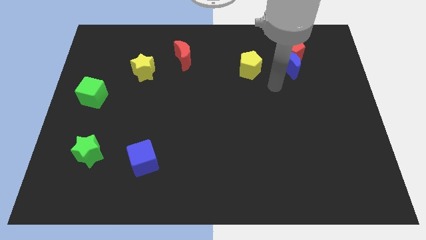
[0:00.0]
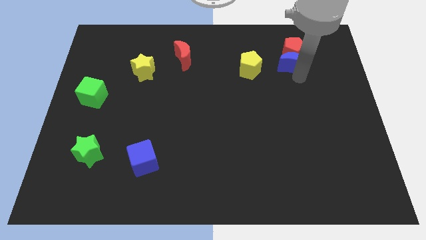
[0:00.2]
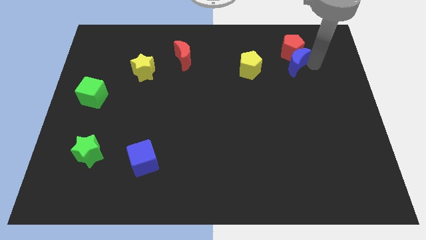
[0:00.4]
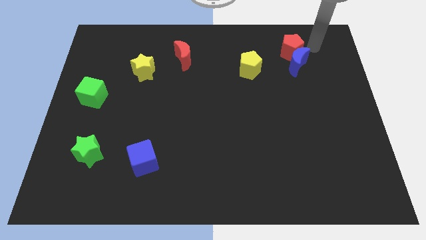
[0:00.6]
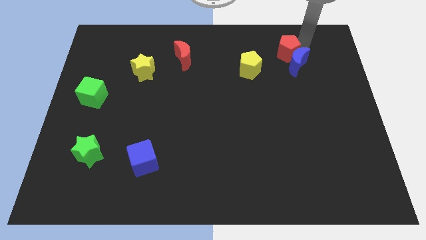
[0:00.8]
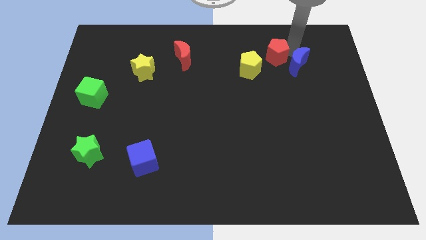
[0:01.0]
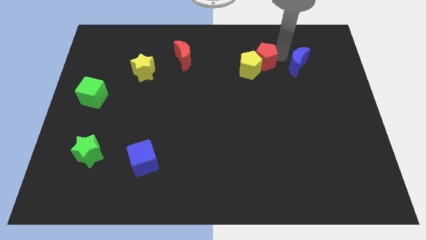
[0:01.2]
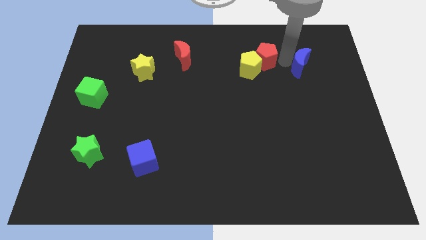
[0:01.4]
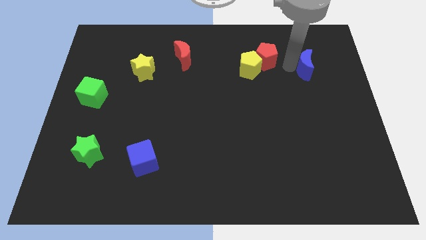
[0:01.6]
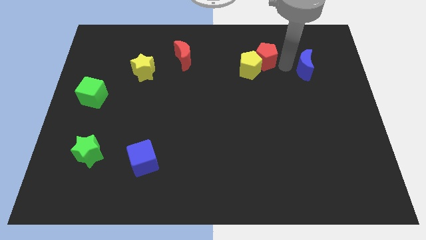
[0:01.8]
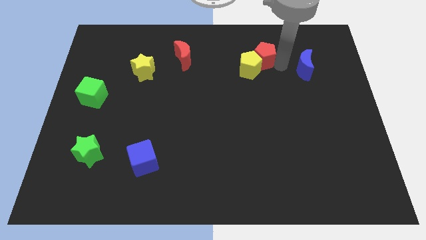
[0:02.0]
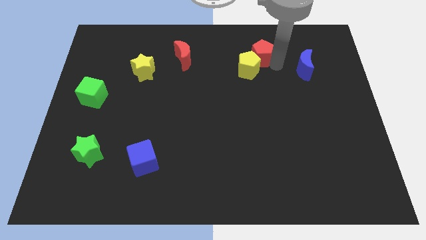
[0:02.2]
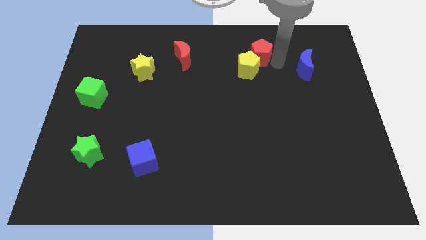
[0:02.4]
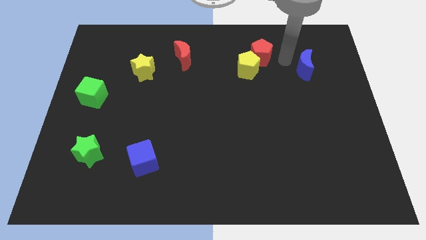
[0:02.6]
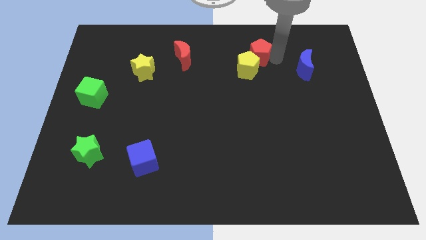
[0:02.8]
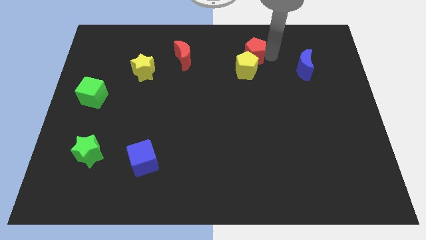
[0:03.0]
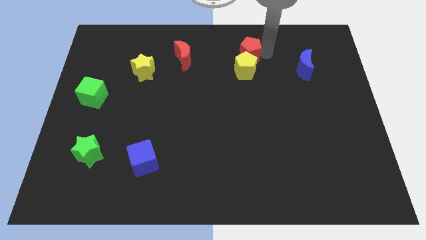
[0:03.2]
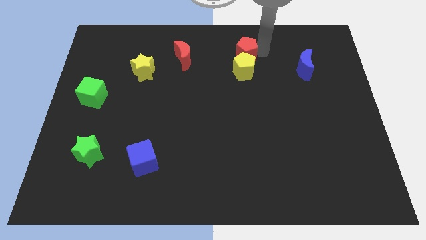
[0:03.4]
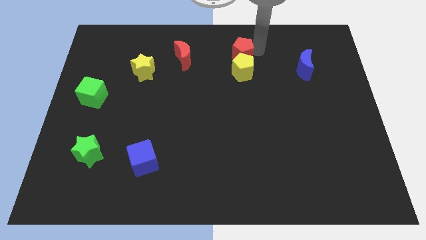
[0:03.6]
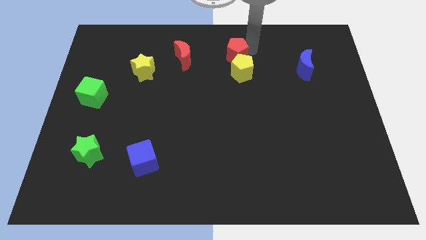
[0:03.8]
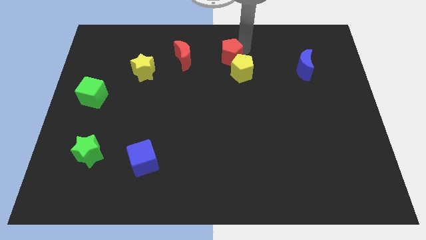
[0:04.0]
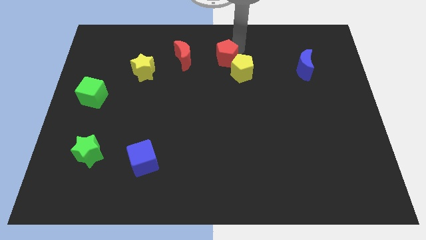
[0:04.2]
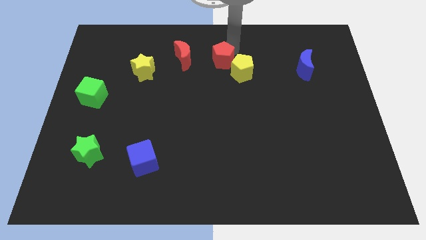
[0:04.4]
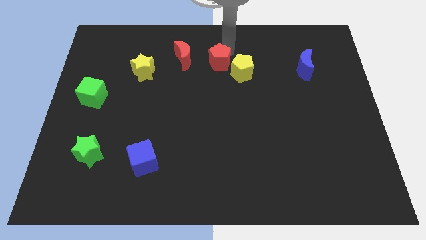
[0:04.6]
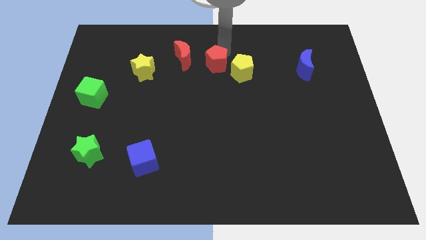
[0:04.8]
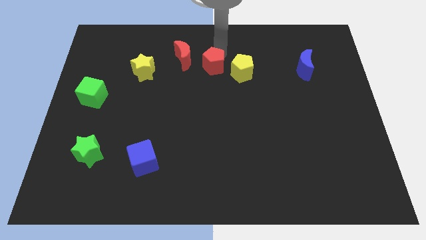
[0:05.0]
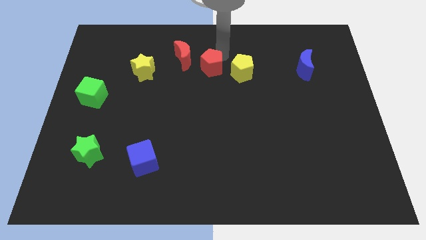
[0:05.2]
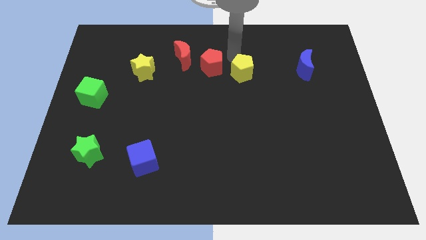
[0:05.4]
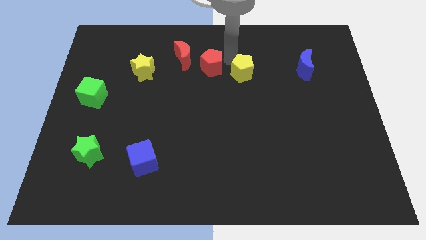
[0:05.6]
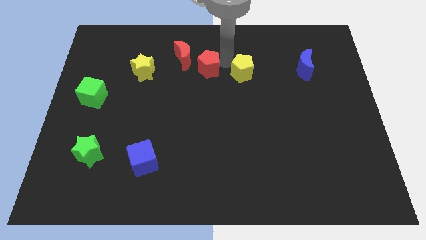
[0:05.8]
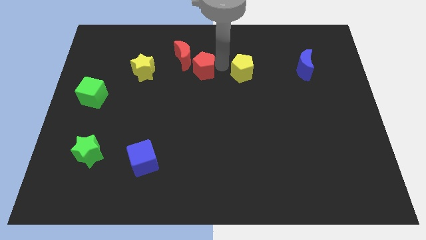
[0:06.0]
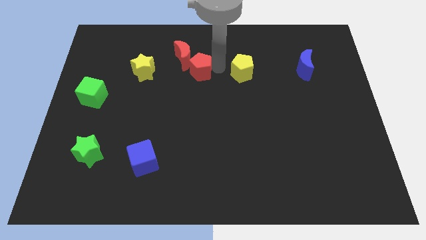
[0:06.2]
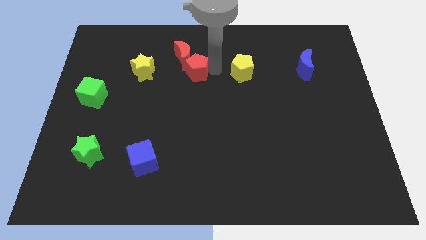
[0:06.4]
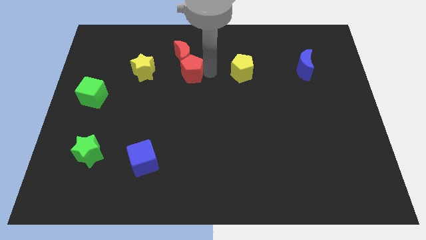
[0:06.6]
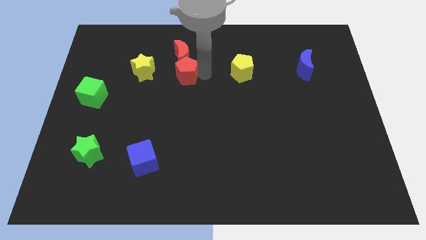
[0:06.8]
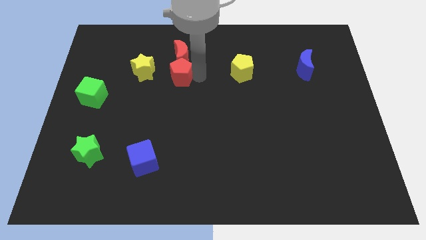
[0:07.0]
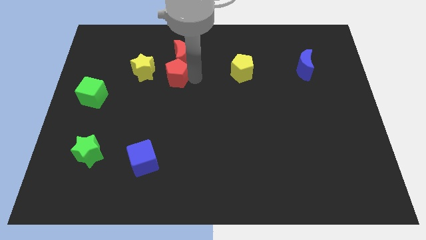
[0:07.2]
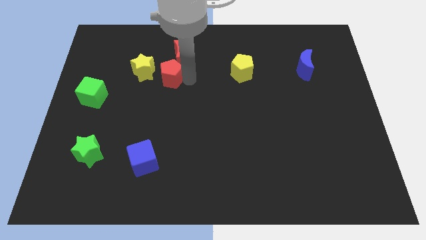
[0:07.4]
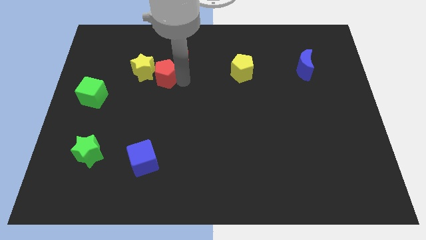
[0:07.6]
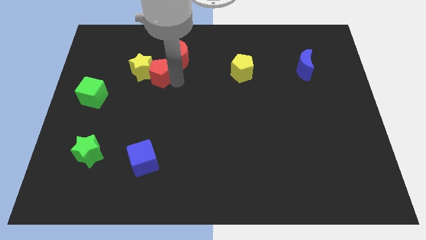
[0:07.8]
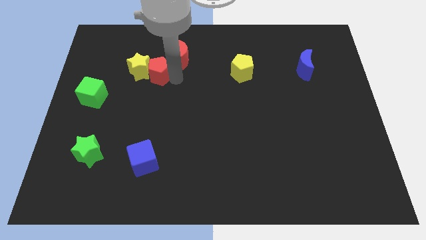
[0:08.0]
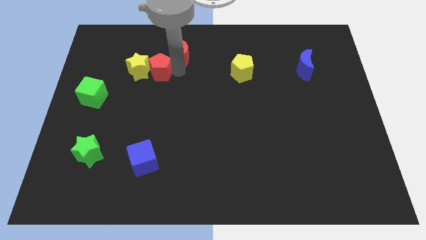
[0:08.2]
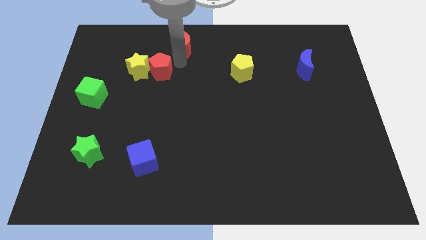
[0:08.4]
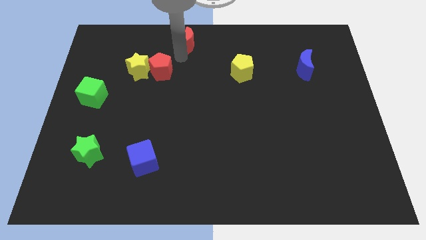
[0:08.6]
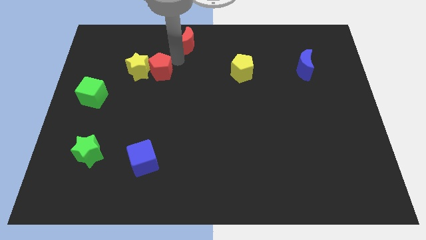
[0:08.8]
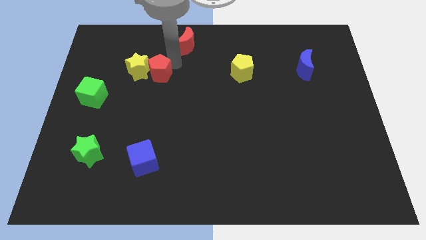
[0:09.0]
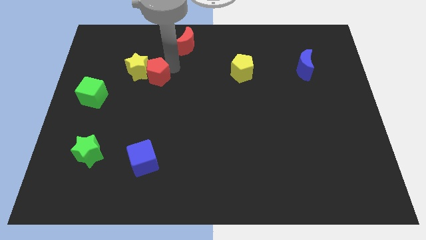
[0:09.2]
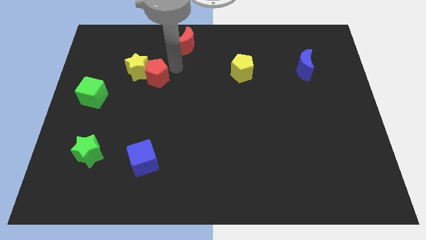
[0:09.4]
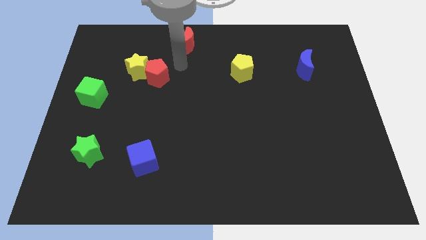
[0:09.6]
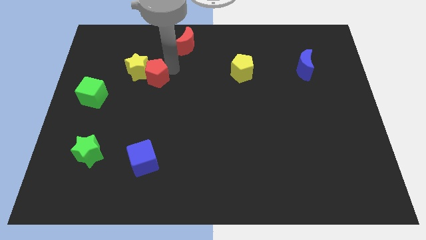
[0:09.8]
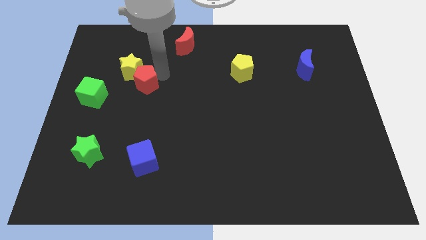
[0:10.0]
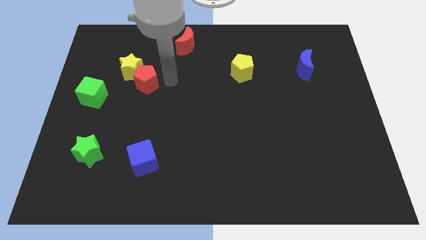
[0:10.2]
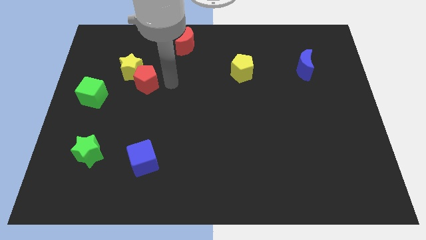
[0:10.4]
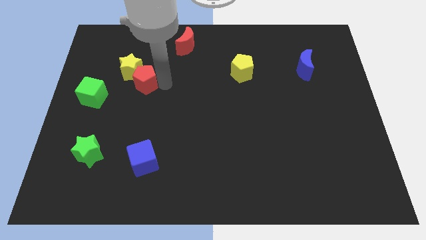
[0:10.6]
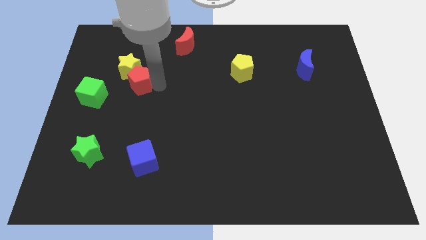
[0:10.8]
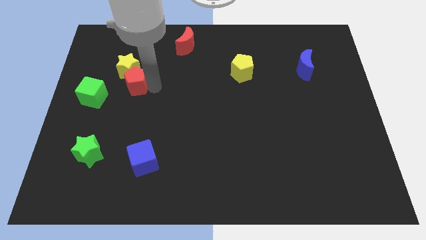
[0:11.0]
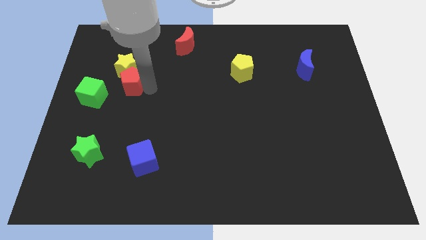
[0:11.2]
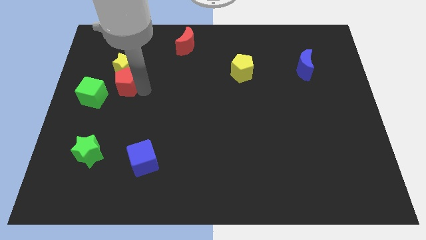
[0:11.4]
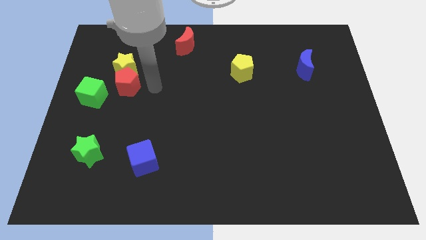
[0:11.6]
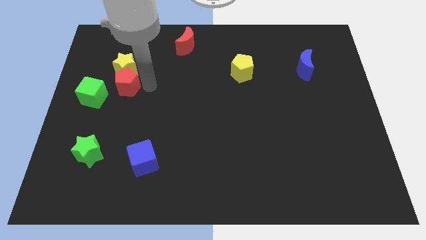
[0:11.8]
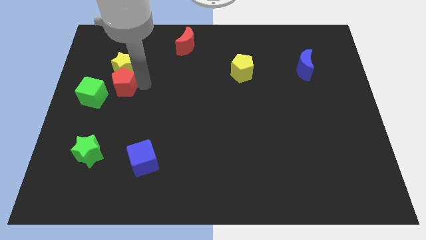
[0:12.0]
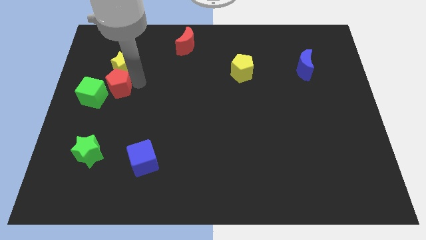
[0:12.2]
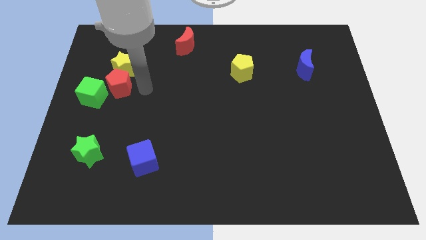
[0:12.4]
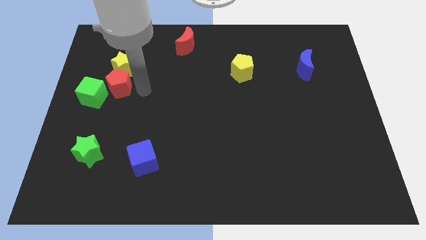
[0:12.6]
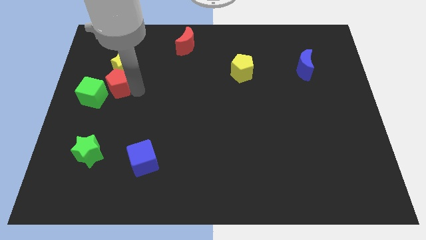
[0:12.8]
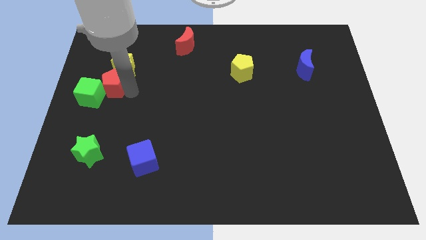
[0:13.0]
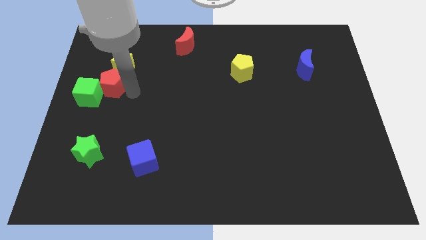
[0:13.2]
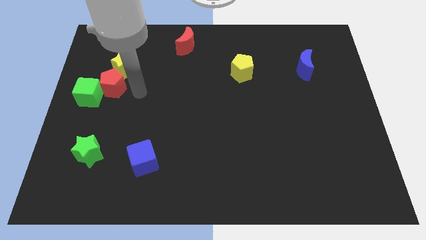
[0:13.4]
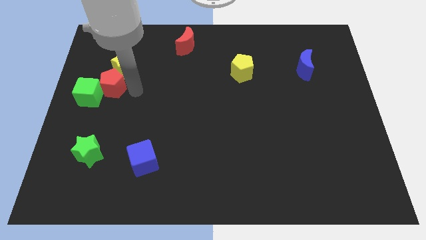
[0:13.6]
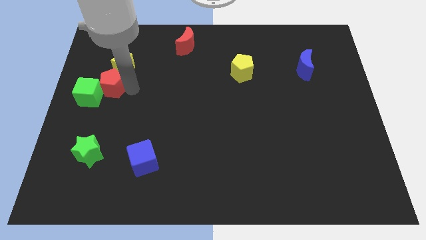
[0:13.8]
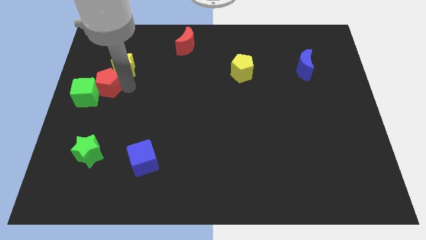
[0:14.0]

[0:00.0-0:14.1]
move the red pentagon to the center left
